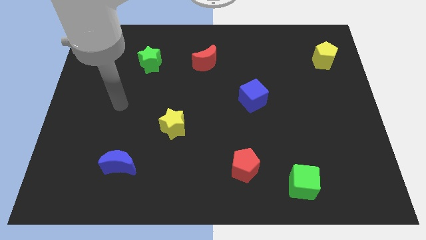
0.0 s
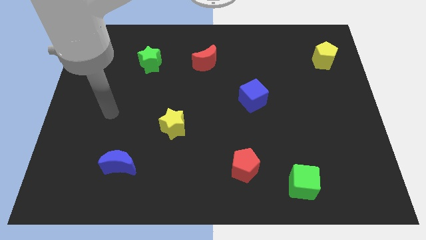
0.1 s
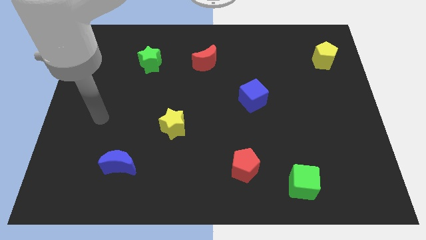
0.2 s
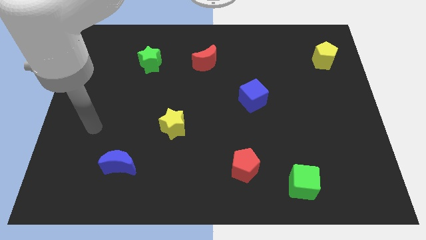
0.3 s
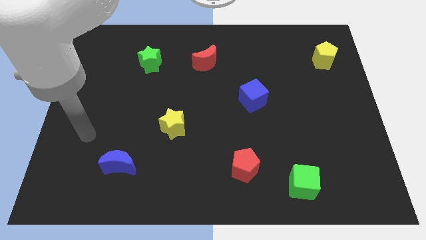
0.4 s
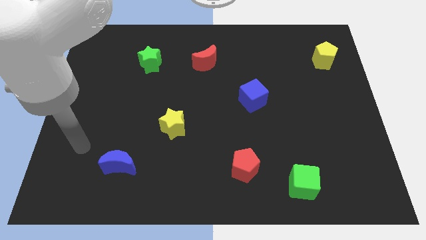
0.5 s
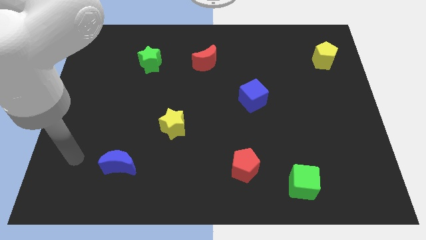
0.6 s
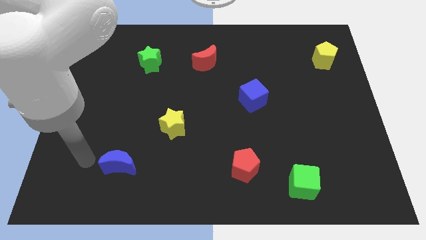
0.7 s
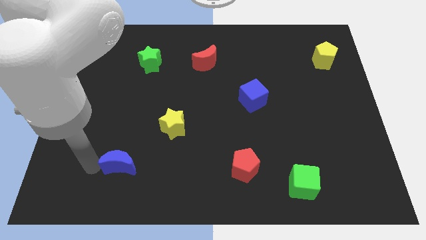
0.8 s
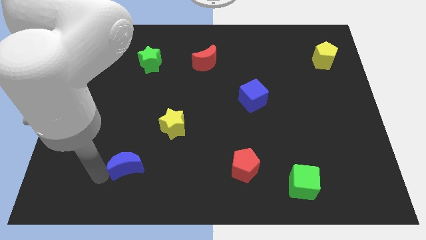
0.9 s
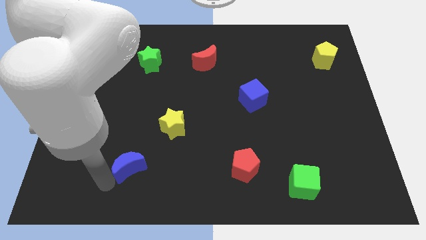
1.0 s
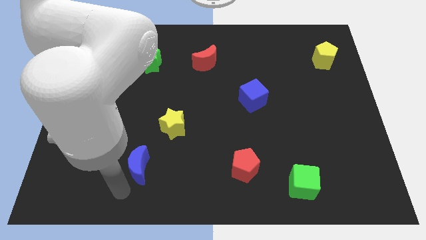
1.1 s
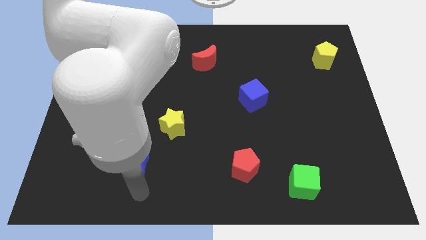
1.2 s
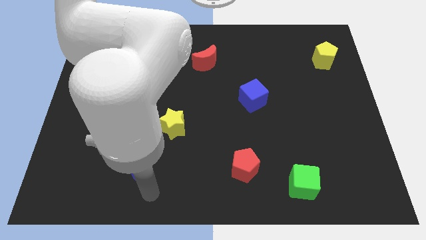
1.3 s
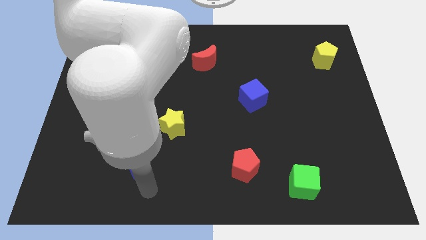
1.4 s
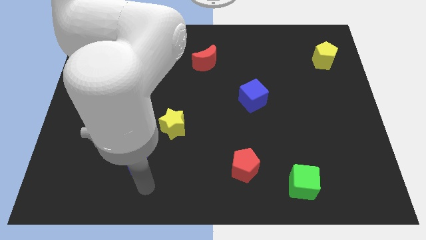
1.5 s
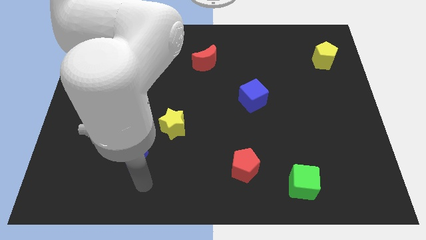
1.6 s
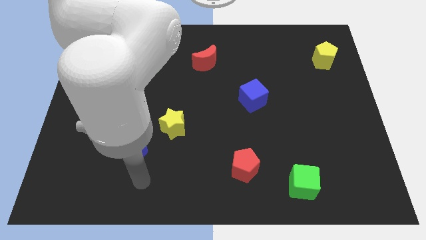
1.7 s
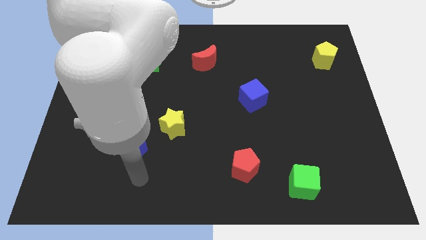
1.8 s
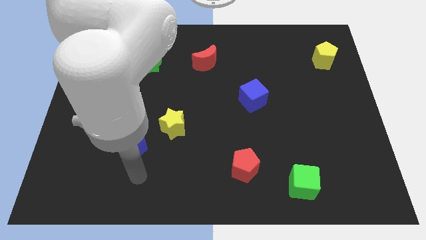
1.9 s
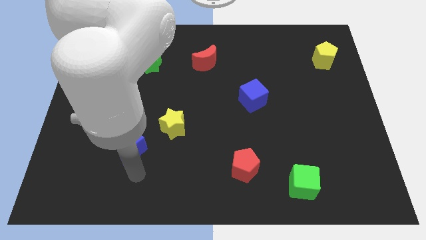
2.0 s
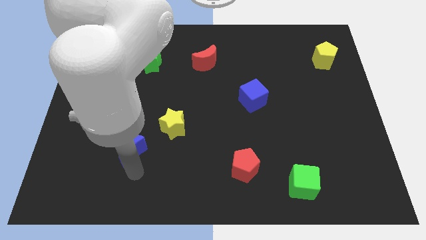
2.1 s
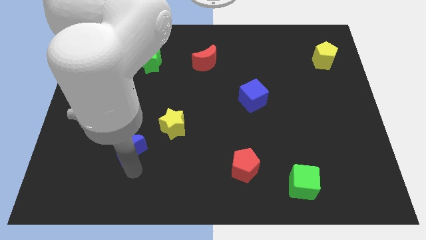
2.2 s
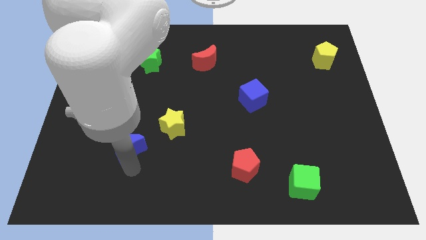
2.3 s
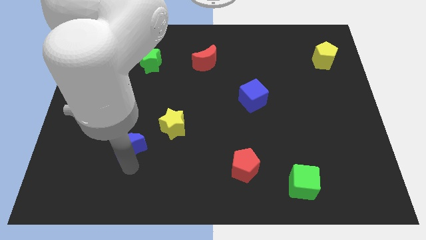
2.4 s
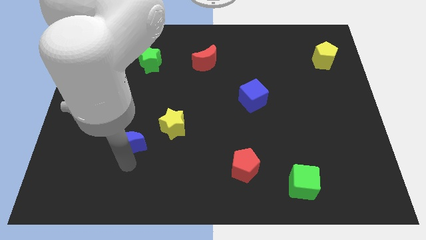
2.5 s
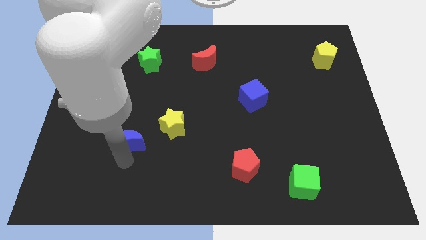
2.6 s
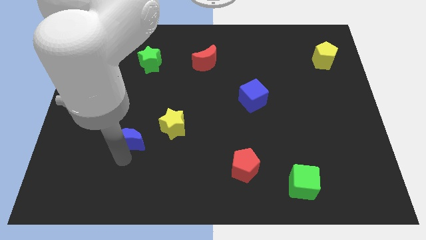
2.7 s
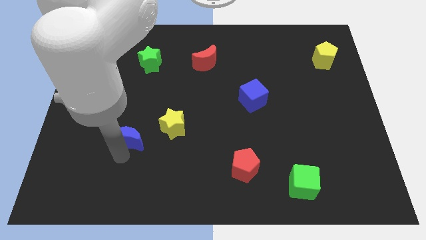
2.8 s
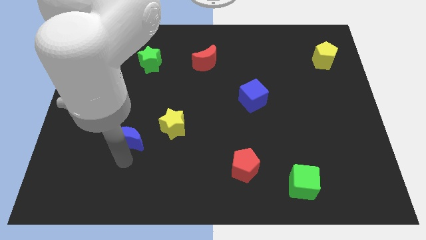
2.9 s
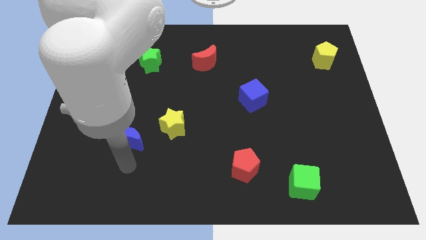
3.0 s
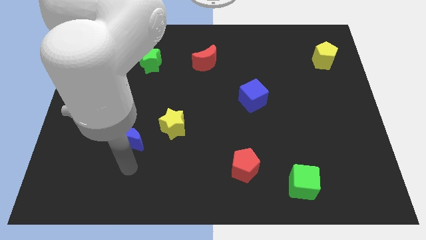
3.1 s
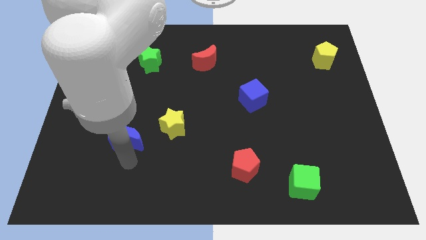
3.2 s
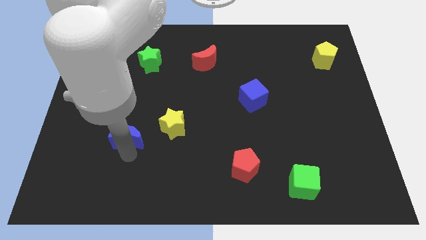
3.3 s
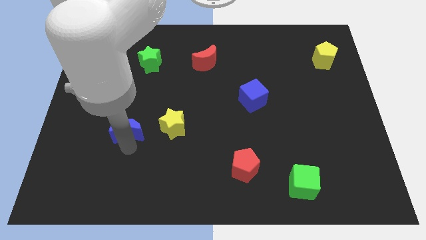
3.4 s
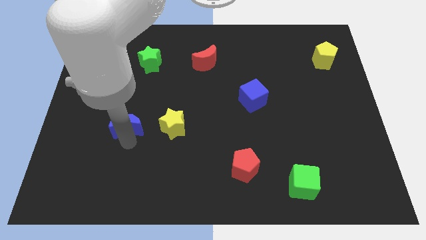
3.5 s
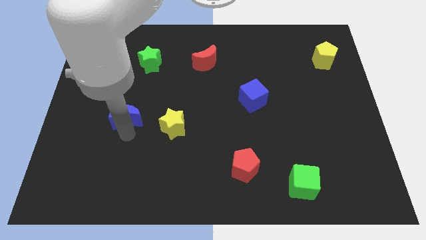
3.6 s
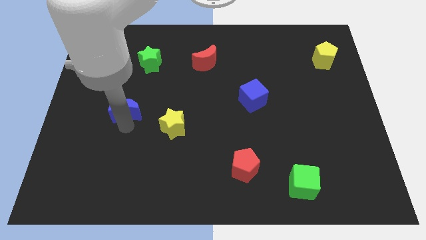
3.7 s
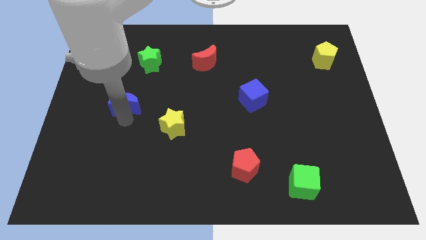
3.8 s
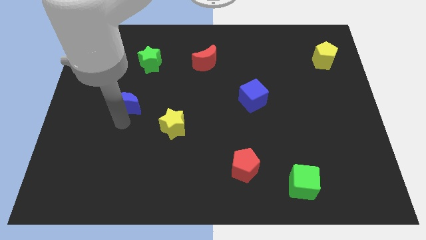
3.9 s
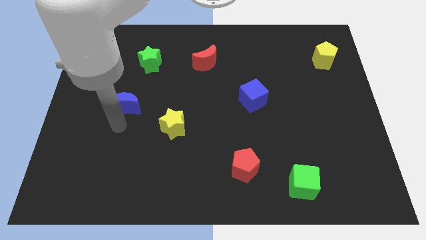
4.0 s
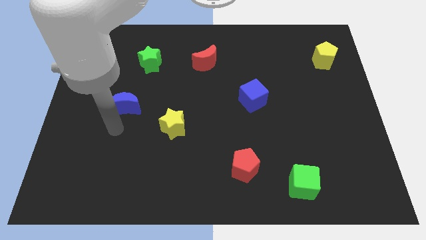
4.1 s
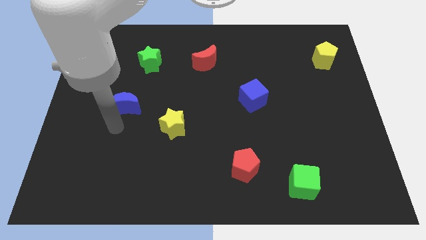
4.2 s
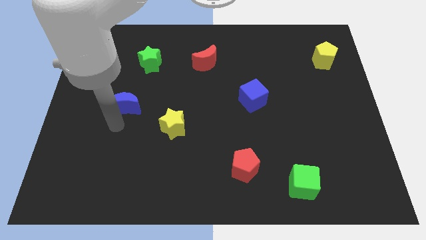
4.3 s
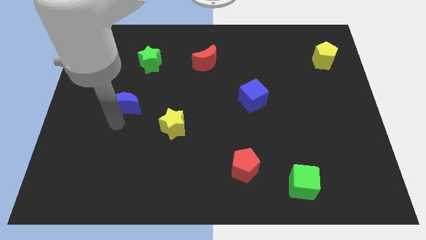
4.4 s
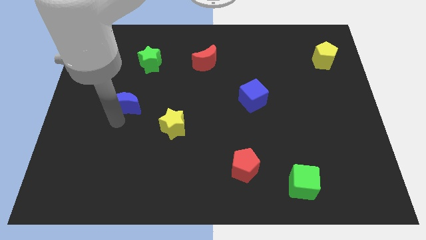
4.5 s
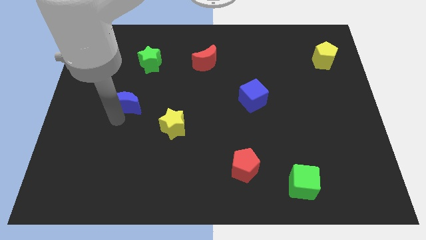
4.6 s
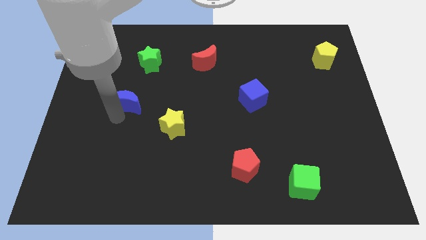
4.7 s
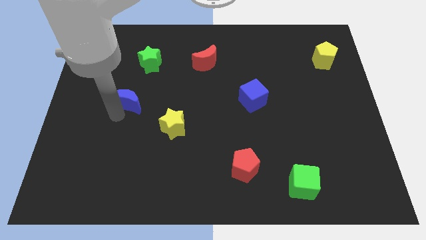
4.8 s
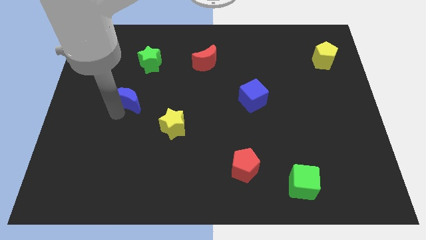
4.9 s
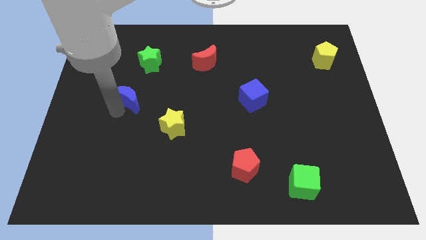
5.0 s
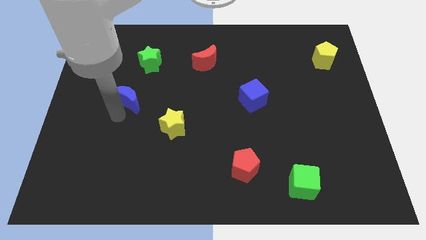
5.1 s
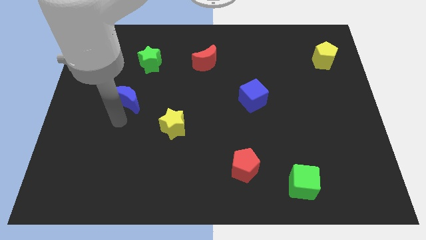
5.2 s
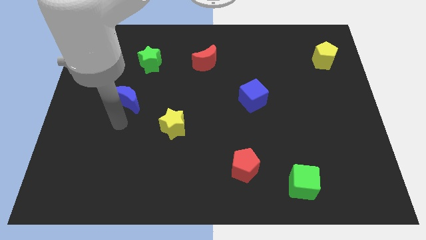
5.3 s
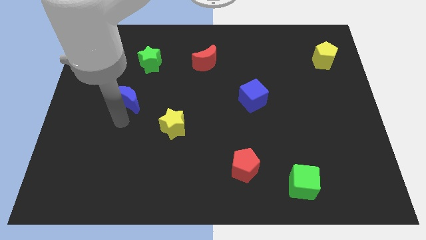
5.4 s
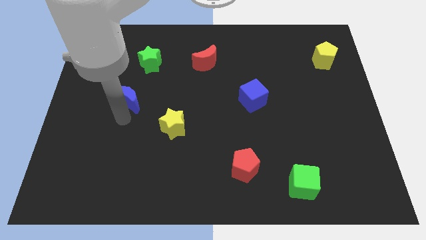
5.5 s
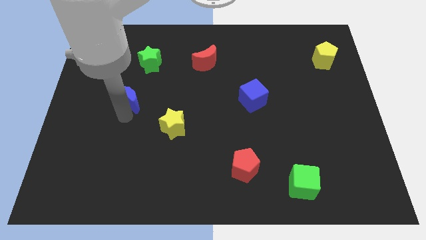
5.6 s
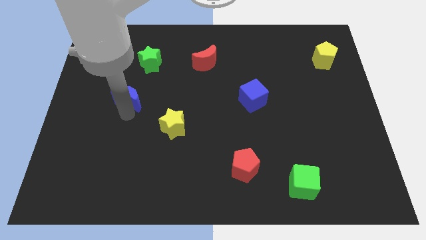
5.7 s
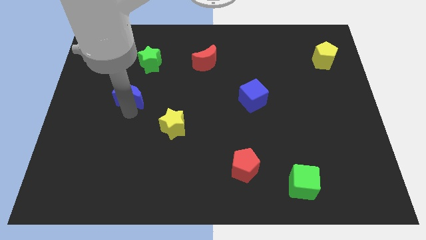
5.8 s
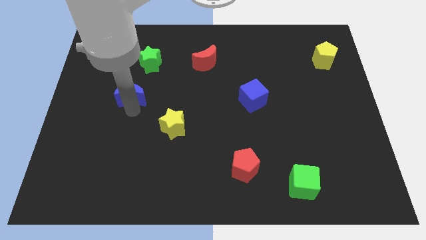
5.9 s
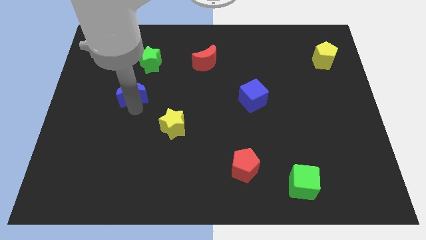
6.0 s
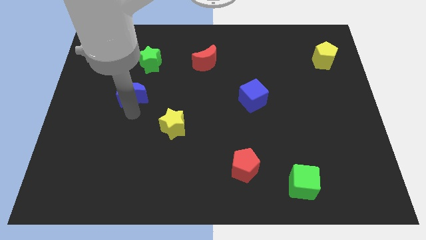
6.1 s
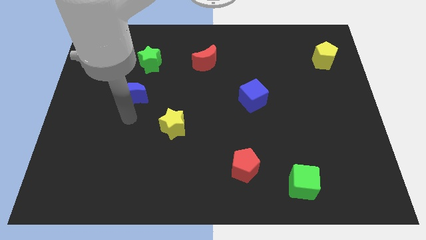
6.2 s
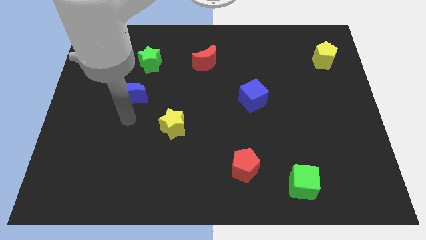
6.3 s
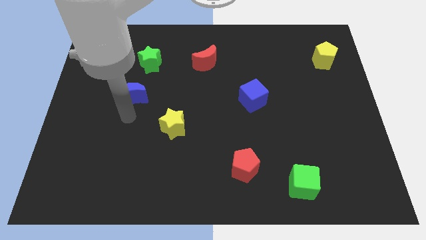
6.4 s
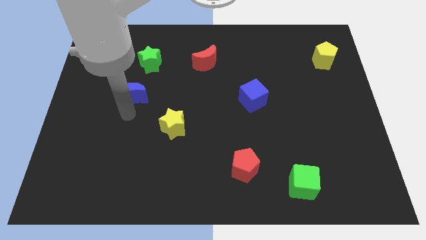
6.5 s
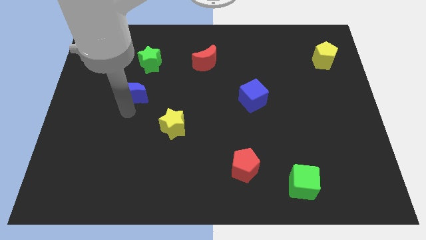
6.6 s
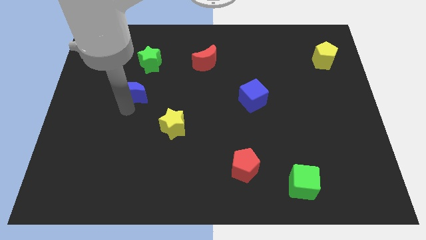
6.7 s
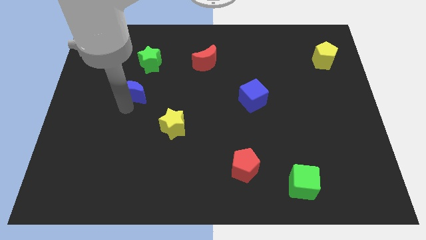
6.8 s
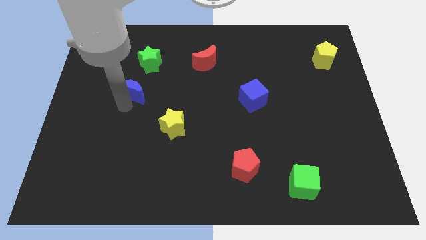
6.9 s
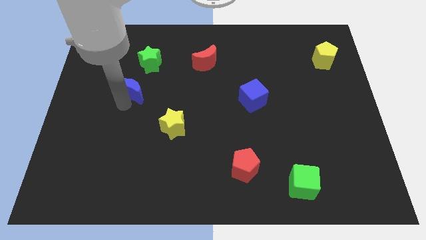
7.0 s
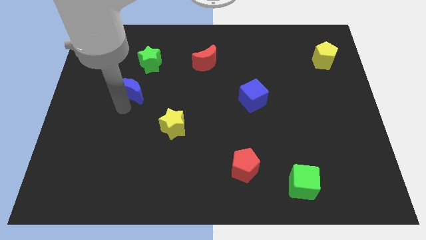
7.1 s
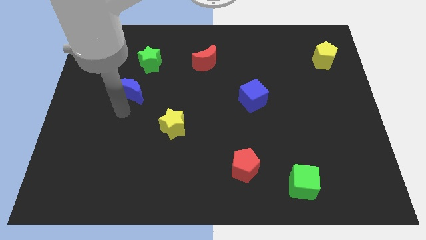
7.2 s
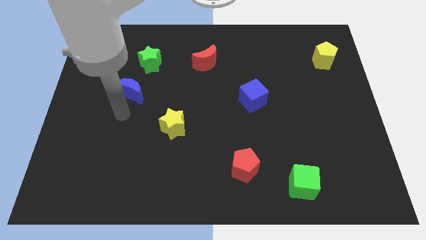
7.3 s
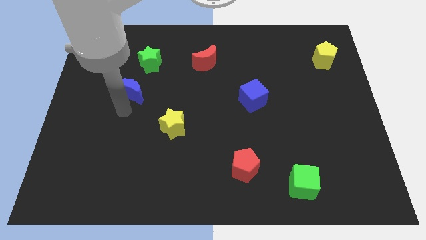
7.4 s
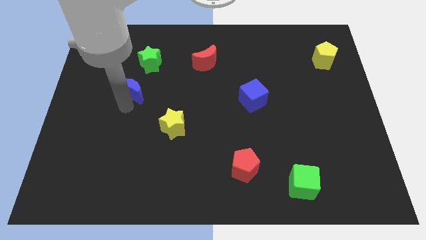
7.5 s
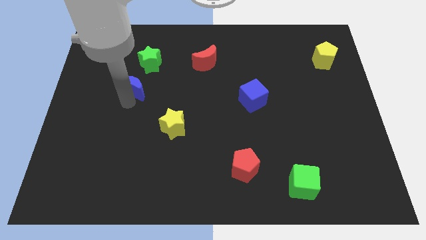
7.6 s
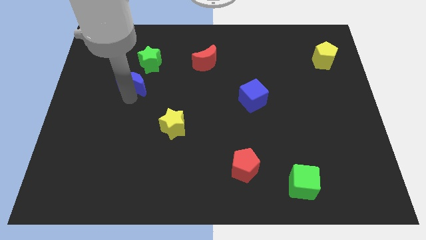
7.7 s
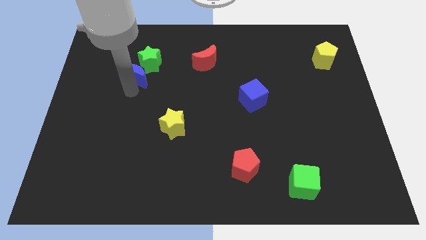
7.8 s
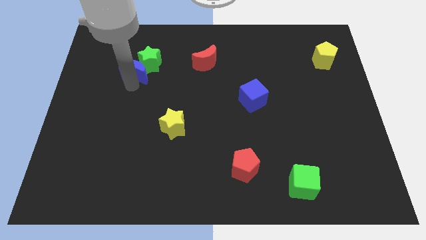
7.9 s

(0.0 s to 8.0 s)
move the blue moon to the green star
